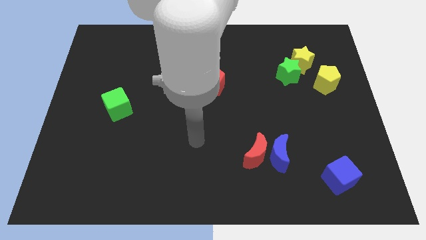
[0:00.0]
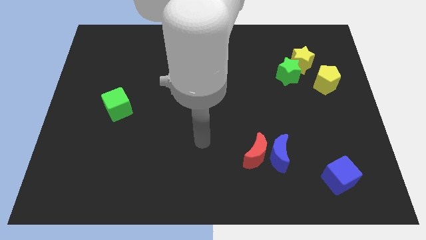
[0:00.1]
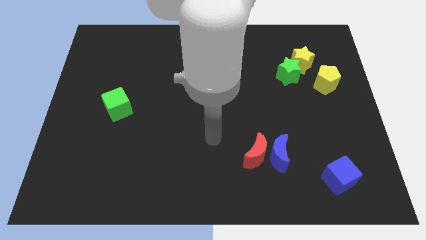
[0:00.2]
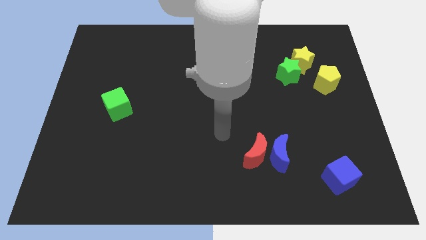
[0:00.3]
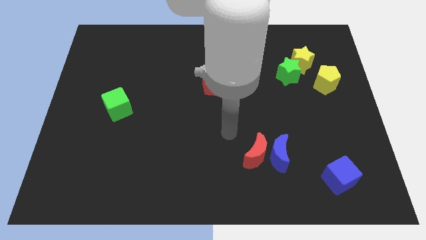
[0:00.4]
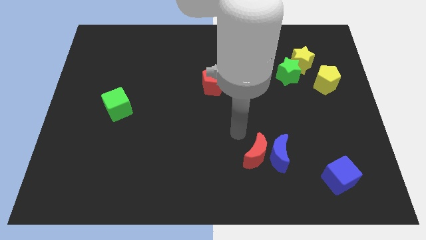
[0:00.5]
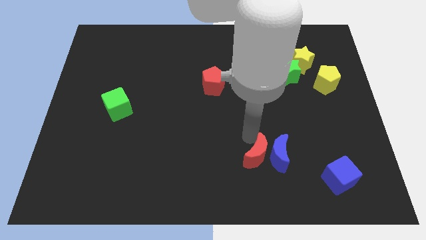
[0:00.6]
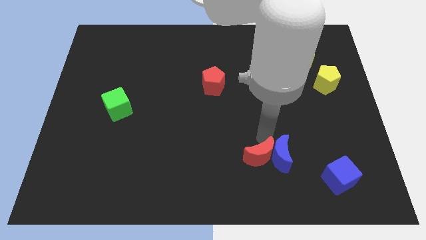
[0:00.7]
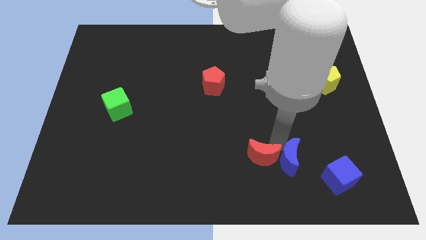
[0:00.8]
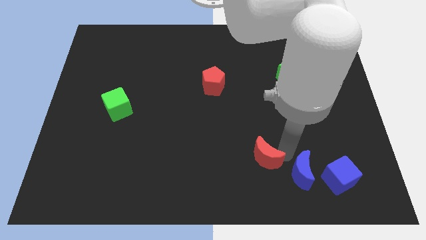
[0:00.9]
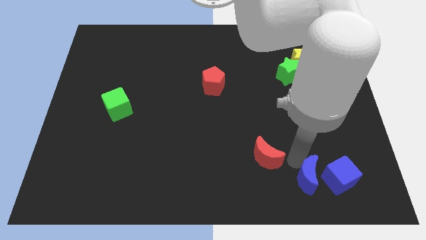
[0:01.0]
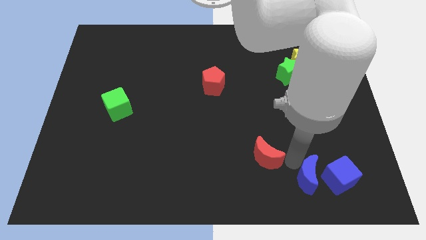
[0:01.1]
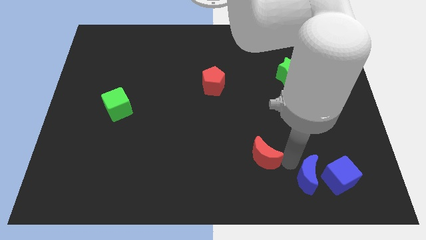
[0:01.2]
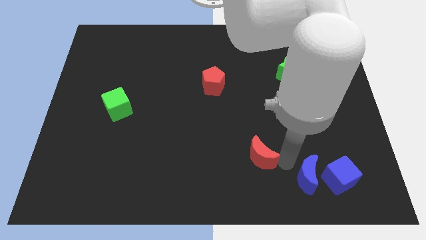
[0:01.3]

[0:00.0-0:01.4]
separate the red moon from the blue moon

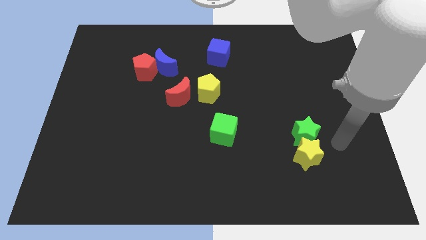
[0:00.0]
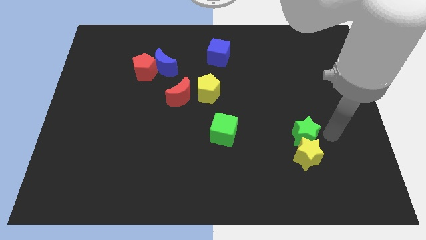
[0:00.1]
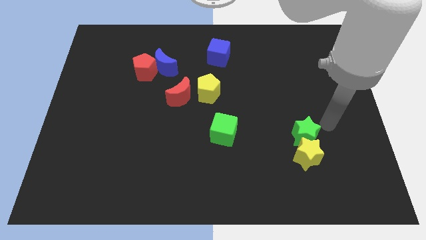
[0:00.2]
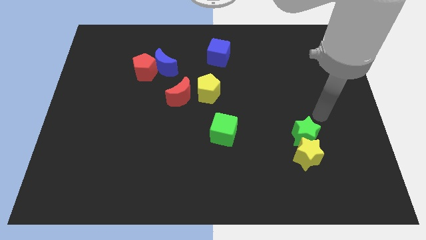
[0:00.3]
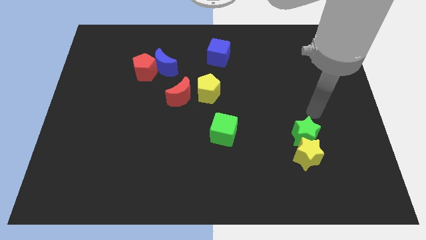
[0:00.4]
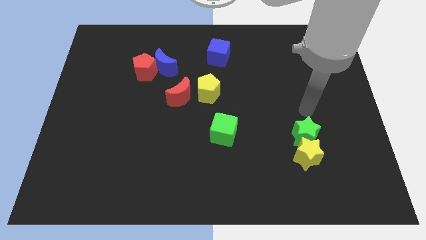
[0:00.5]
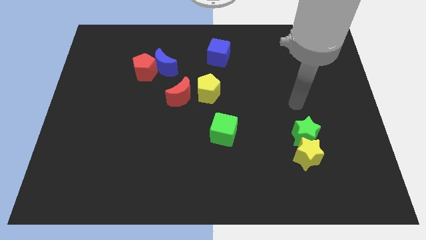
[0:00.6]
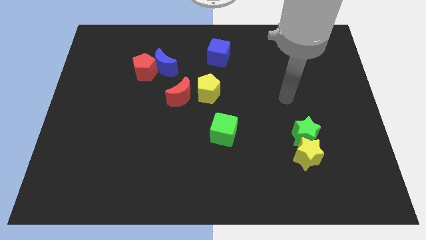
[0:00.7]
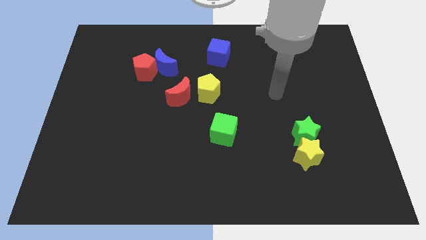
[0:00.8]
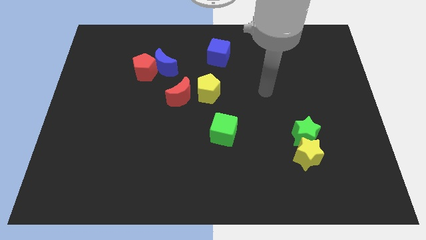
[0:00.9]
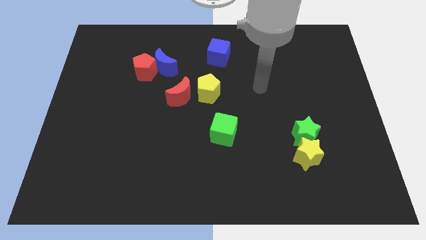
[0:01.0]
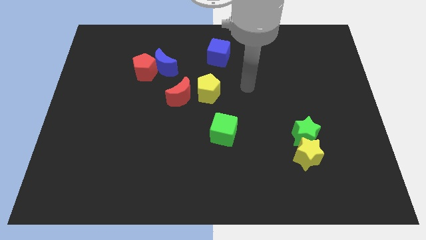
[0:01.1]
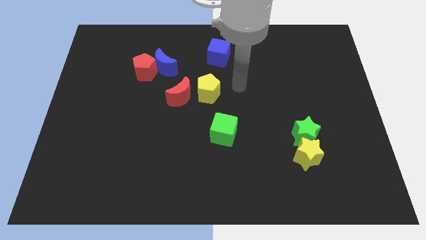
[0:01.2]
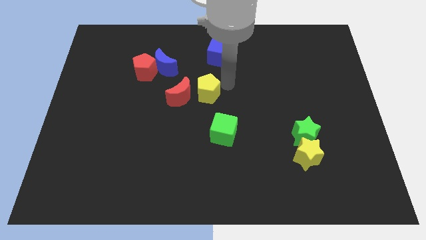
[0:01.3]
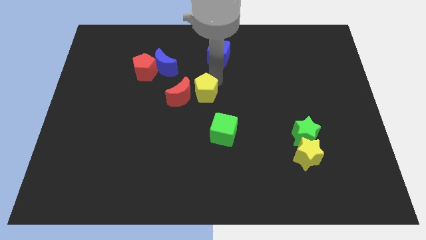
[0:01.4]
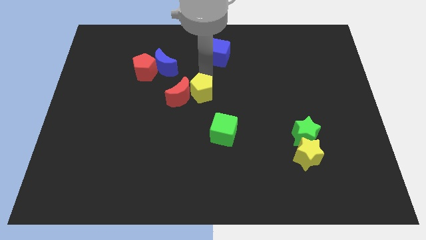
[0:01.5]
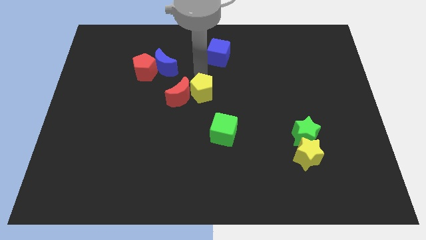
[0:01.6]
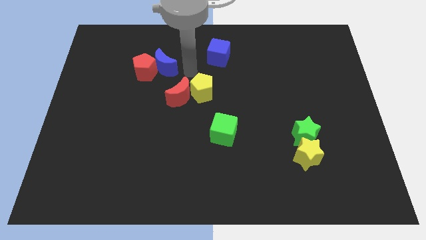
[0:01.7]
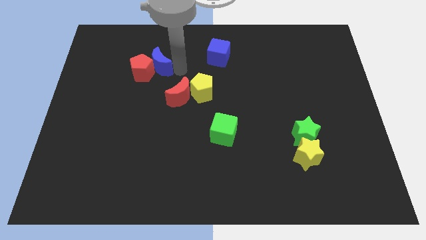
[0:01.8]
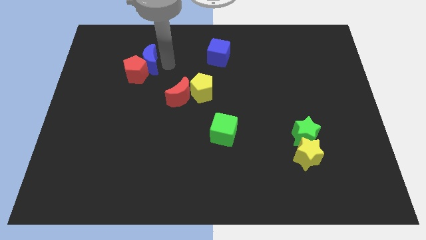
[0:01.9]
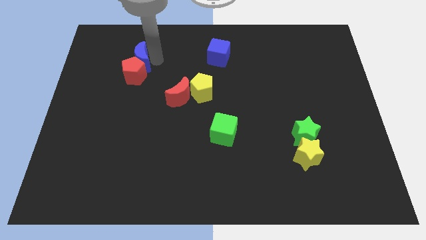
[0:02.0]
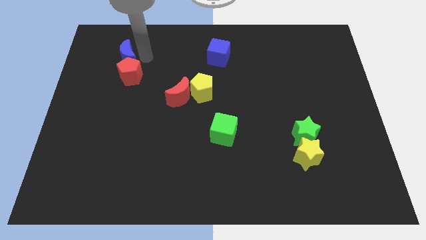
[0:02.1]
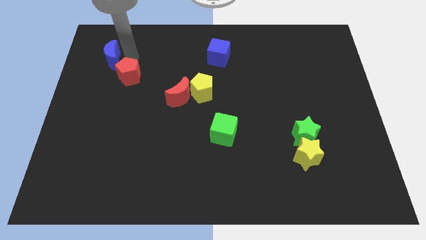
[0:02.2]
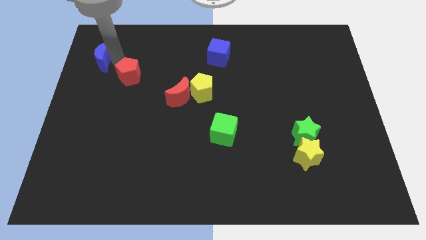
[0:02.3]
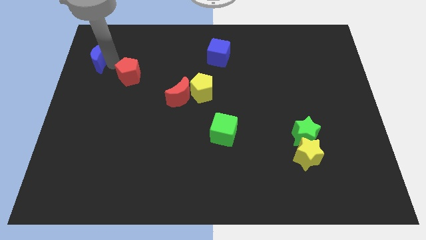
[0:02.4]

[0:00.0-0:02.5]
move the red pentagon away from the blue moon

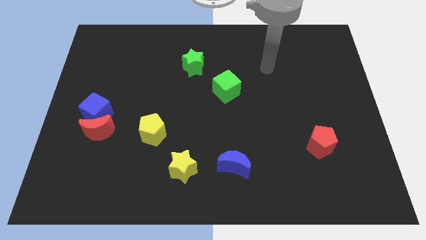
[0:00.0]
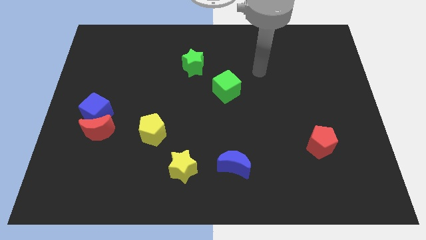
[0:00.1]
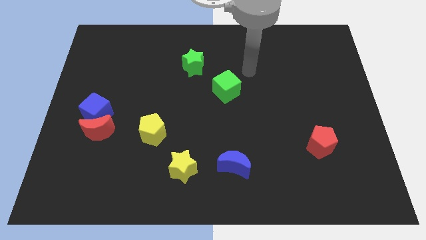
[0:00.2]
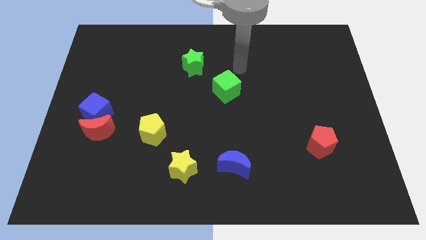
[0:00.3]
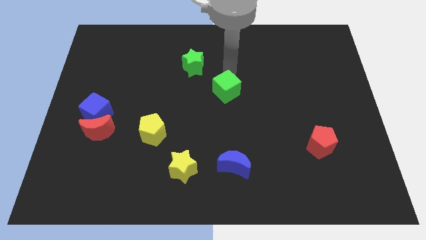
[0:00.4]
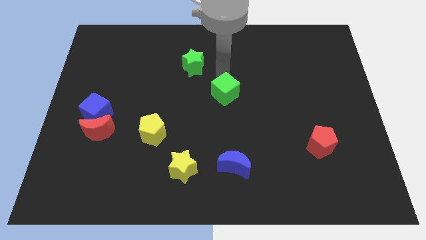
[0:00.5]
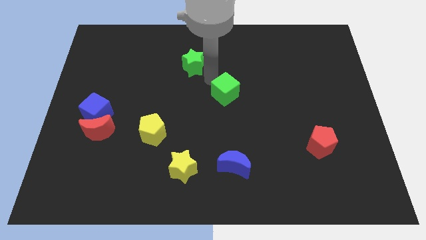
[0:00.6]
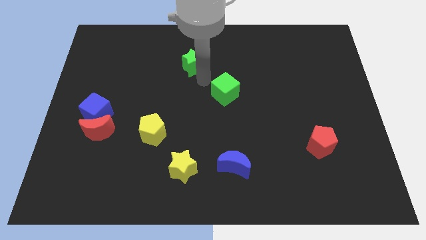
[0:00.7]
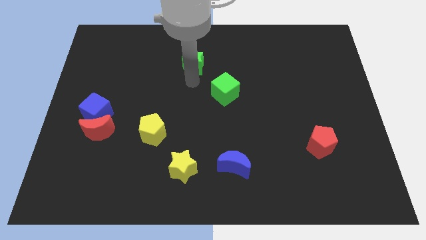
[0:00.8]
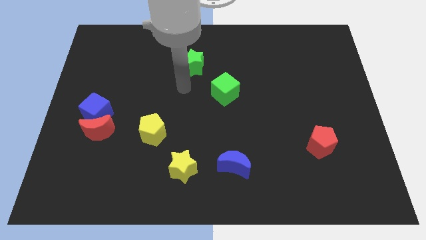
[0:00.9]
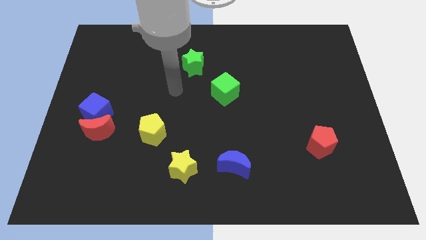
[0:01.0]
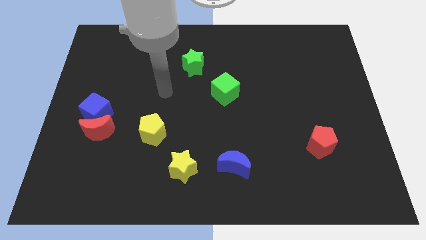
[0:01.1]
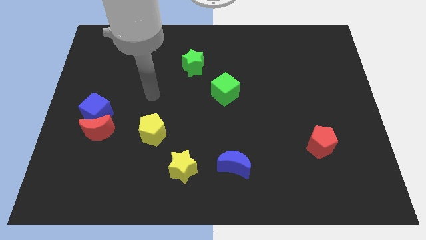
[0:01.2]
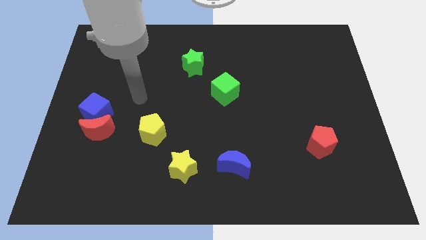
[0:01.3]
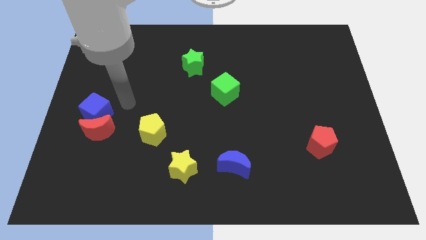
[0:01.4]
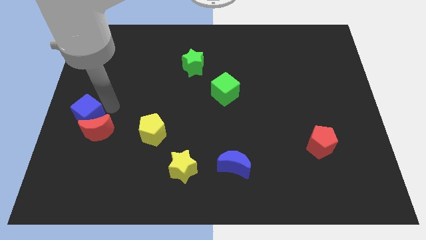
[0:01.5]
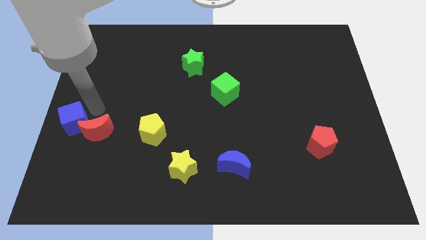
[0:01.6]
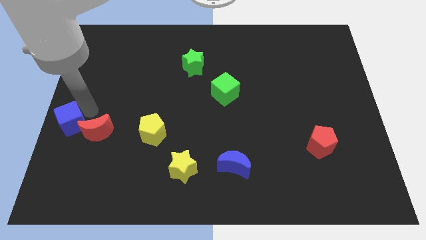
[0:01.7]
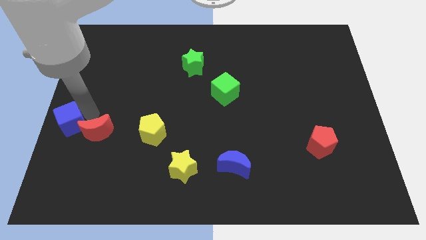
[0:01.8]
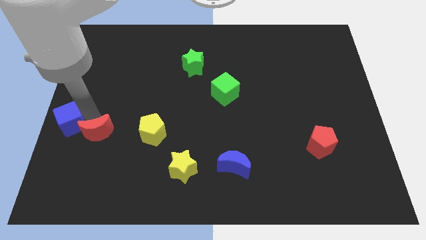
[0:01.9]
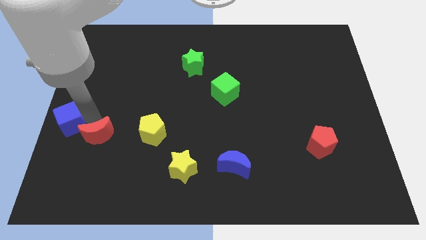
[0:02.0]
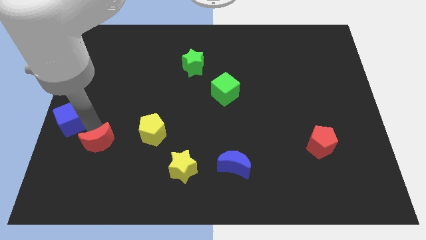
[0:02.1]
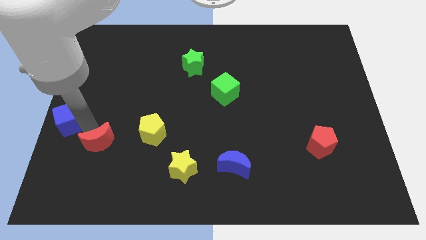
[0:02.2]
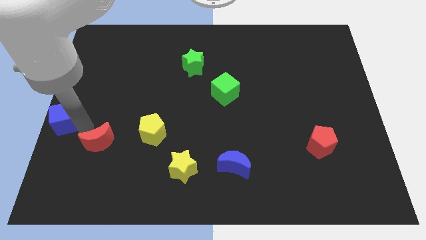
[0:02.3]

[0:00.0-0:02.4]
separate the red moon from the blue cube

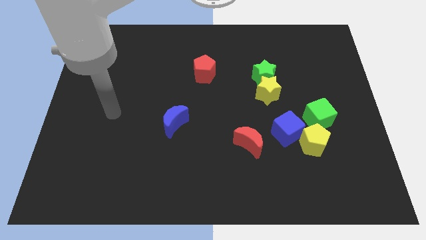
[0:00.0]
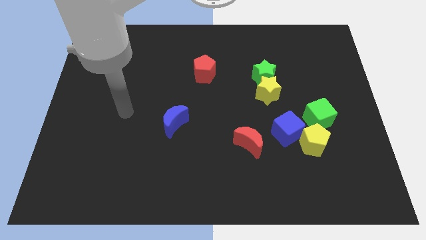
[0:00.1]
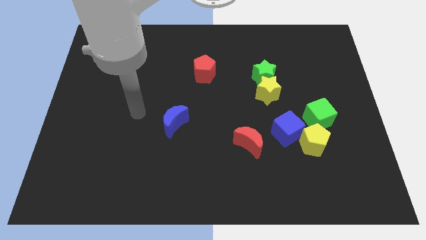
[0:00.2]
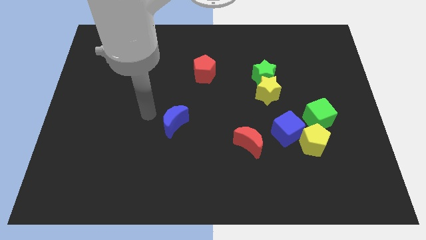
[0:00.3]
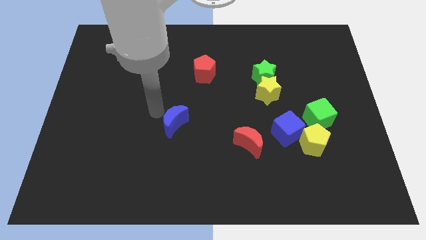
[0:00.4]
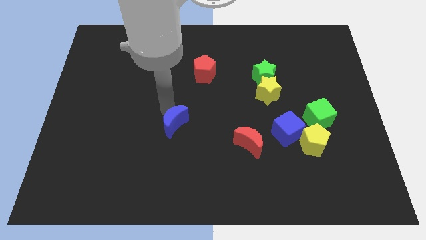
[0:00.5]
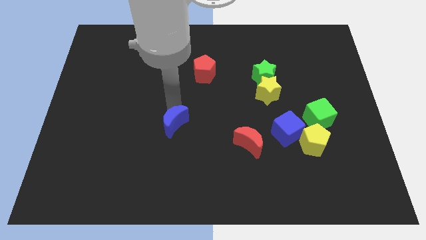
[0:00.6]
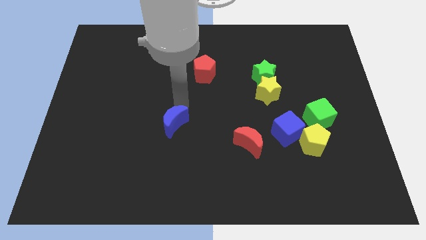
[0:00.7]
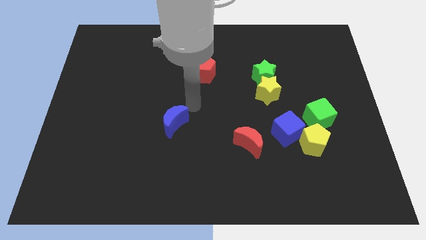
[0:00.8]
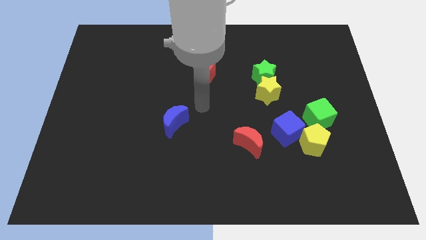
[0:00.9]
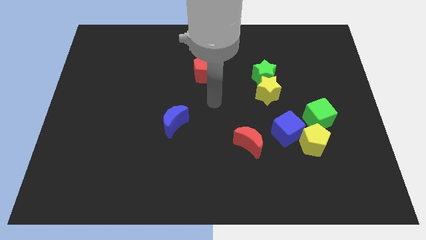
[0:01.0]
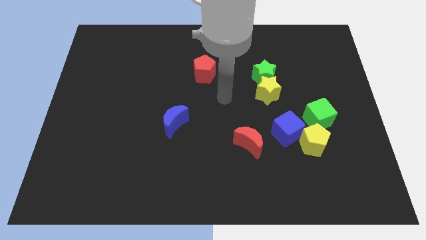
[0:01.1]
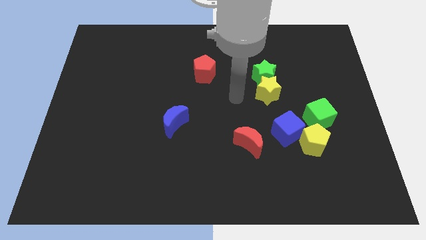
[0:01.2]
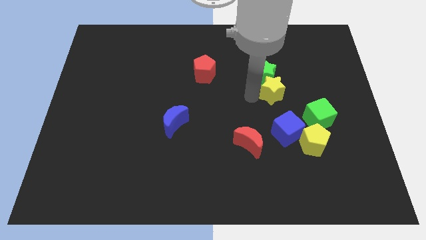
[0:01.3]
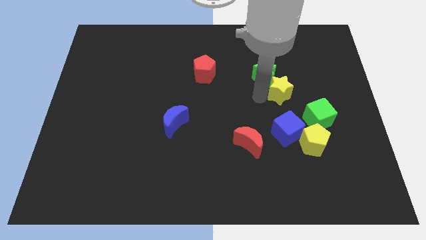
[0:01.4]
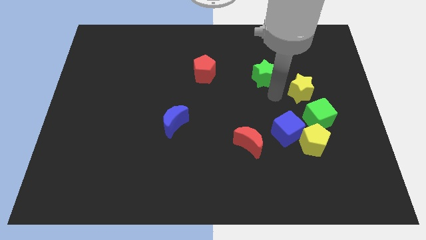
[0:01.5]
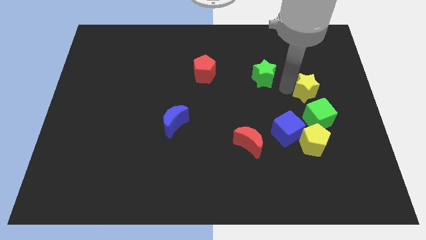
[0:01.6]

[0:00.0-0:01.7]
move the green star away from the yellow star

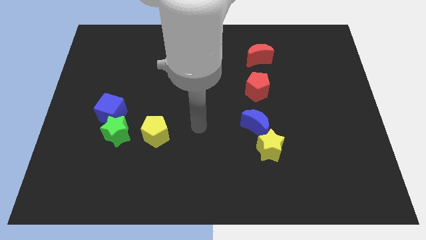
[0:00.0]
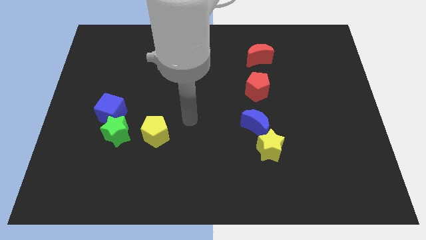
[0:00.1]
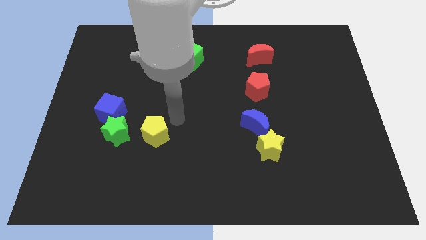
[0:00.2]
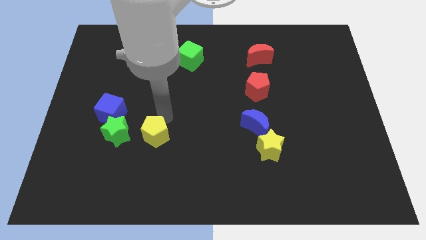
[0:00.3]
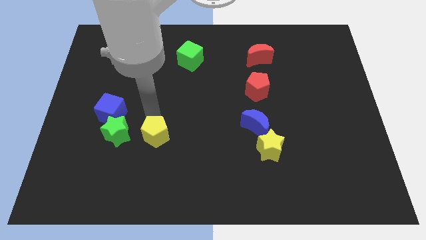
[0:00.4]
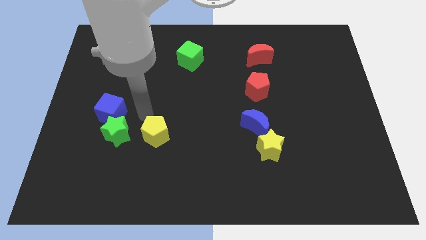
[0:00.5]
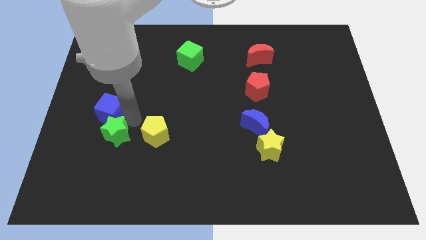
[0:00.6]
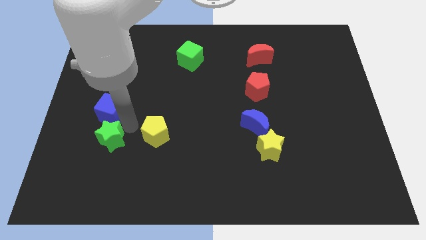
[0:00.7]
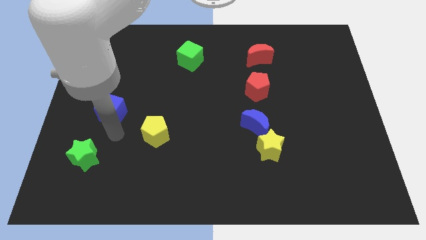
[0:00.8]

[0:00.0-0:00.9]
move the blue cube away from the green star

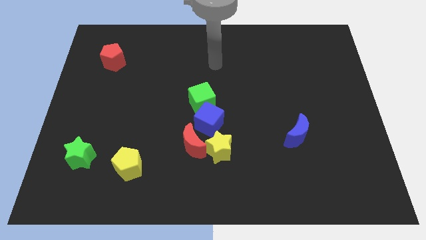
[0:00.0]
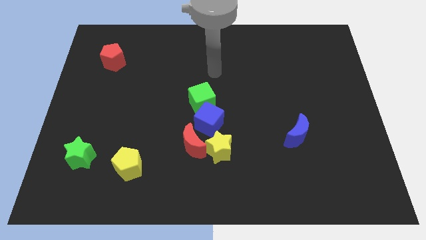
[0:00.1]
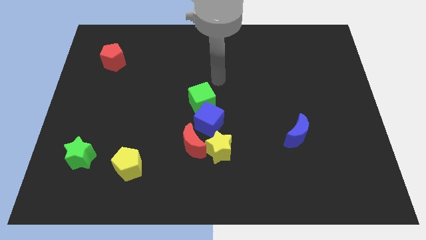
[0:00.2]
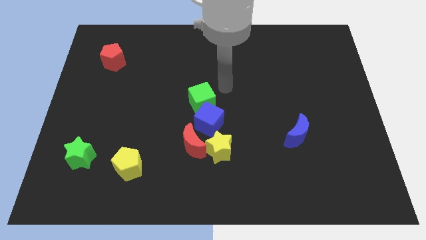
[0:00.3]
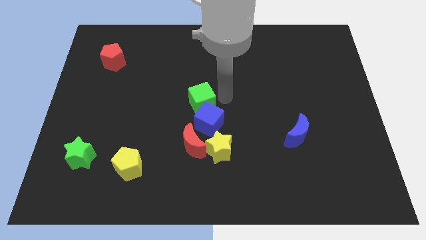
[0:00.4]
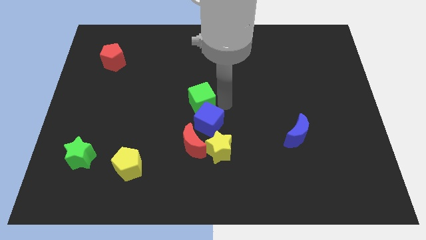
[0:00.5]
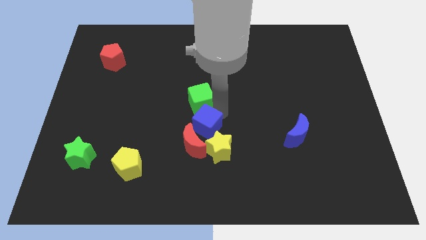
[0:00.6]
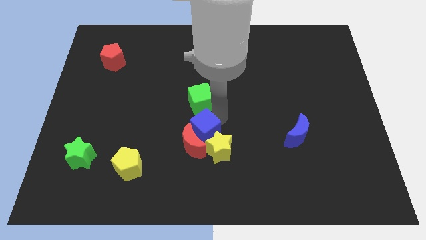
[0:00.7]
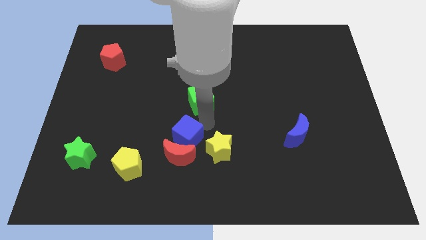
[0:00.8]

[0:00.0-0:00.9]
separate the green cube from the blue cube
